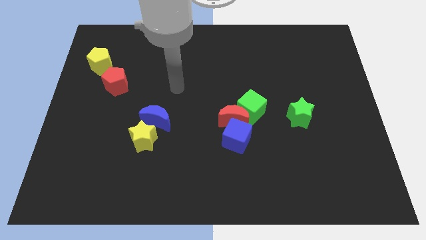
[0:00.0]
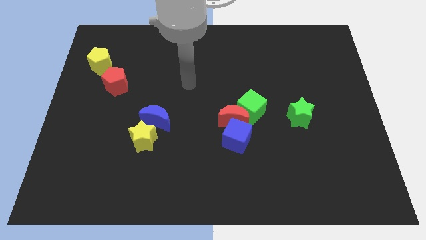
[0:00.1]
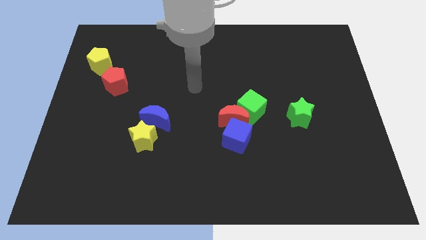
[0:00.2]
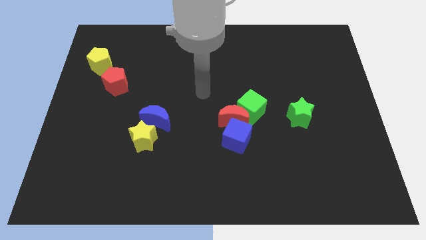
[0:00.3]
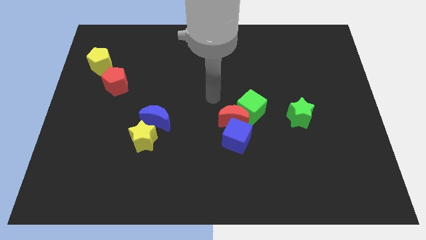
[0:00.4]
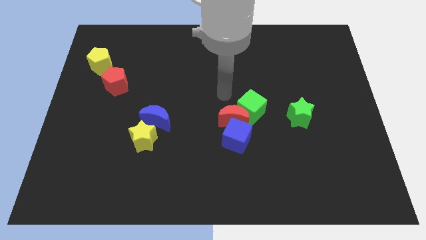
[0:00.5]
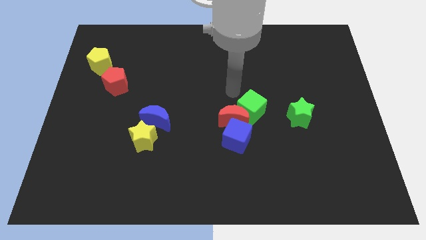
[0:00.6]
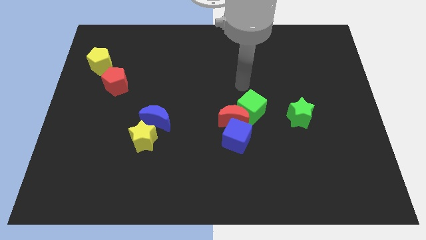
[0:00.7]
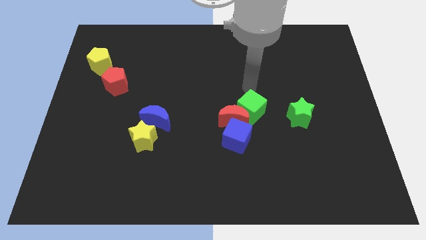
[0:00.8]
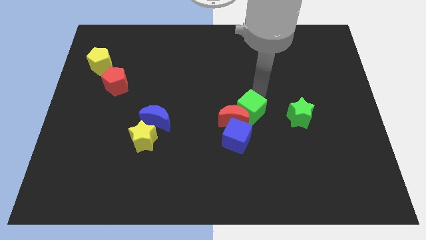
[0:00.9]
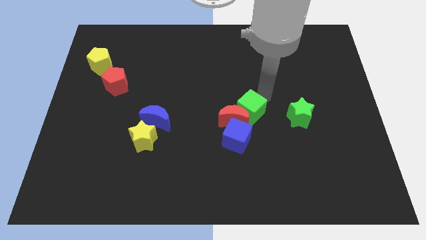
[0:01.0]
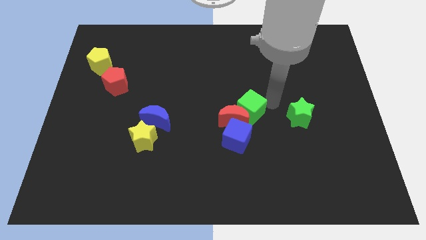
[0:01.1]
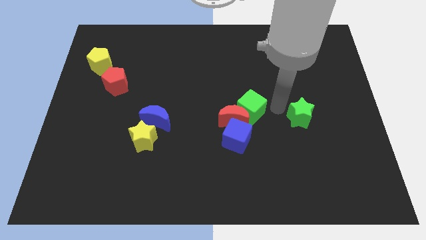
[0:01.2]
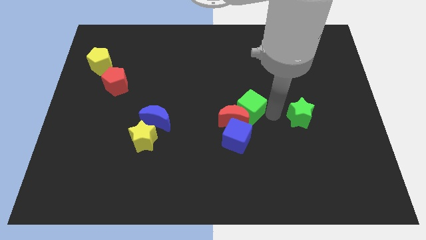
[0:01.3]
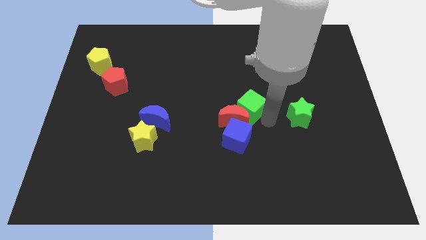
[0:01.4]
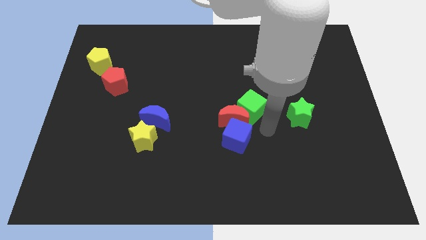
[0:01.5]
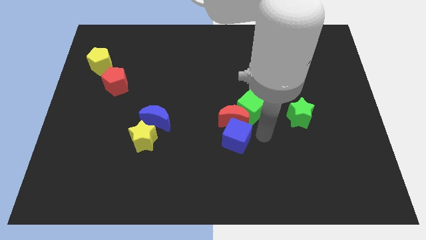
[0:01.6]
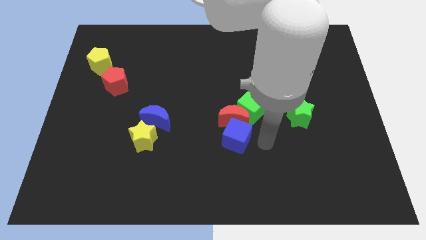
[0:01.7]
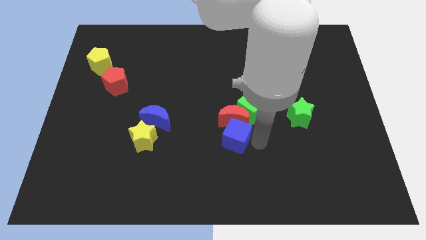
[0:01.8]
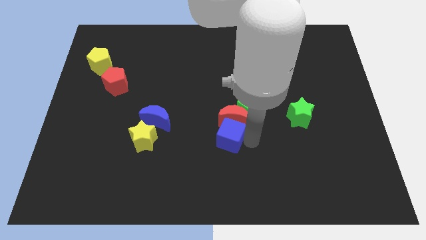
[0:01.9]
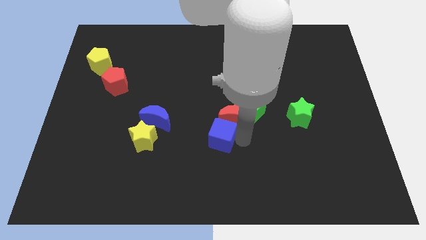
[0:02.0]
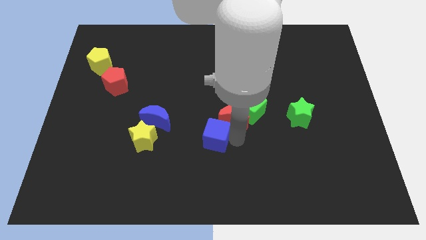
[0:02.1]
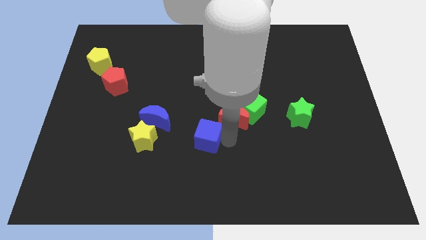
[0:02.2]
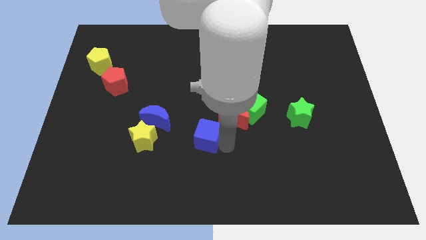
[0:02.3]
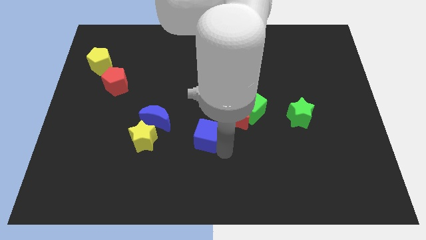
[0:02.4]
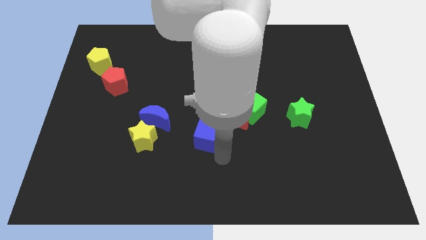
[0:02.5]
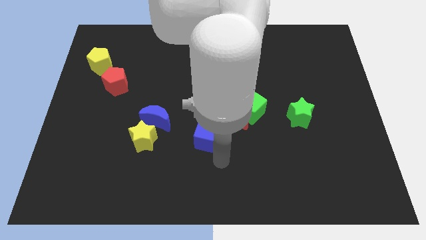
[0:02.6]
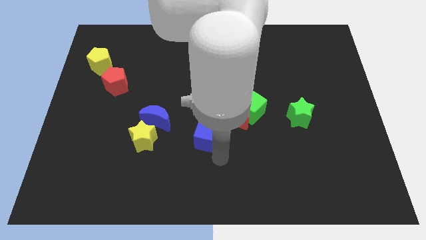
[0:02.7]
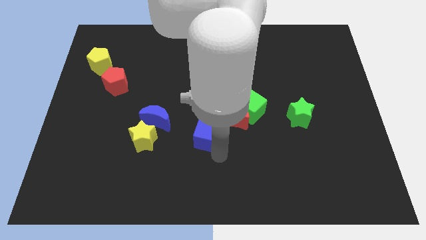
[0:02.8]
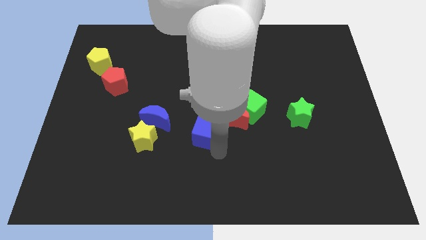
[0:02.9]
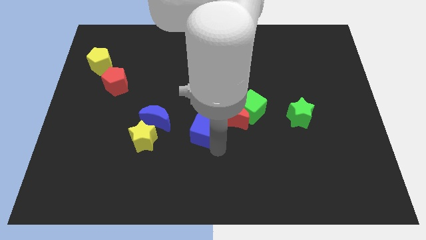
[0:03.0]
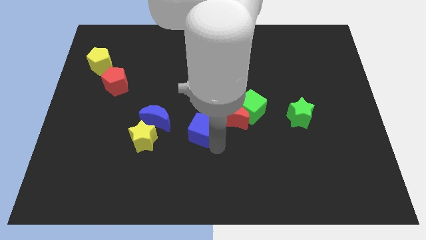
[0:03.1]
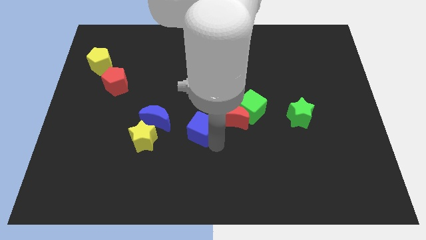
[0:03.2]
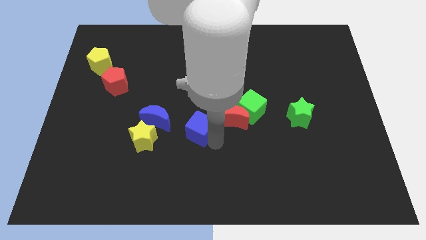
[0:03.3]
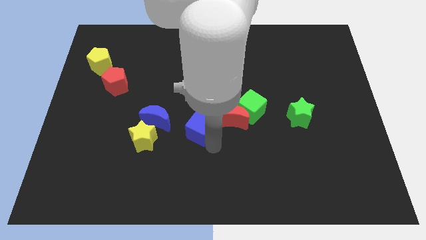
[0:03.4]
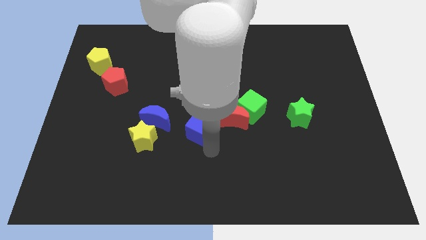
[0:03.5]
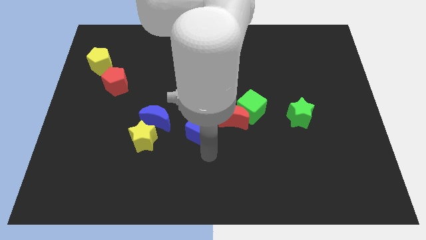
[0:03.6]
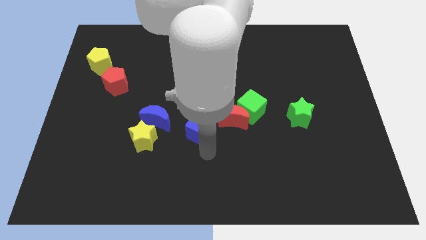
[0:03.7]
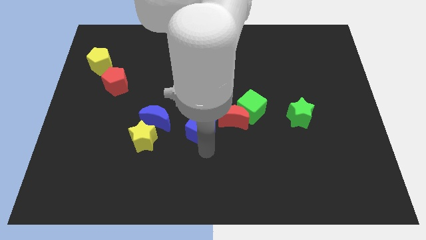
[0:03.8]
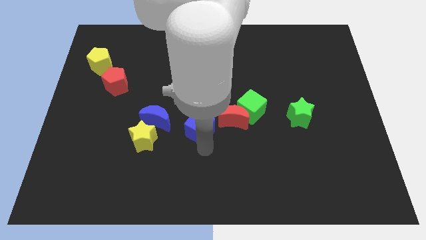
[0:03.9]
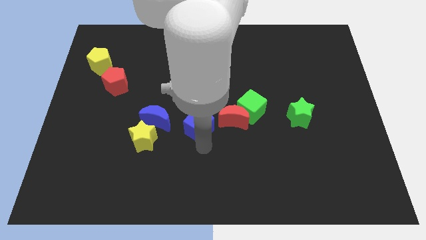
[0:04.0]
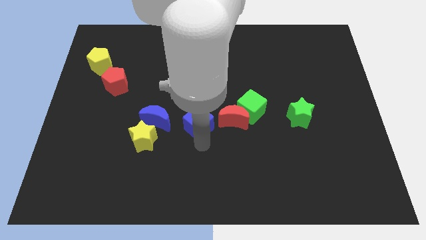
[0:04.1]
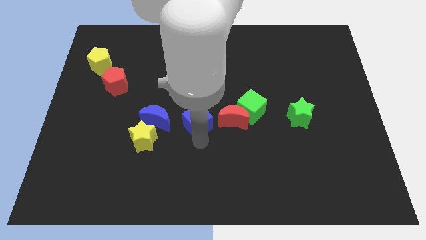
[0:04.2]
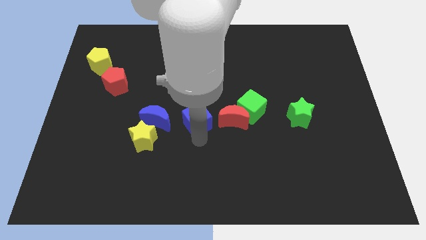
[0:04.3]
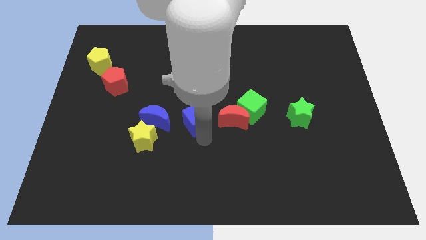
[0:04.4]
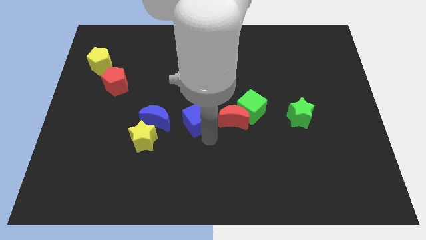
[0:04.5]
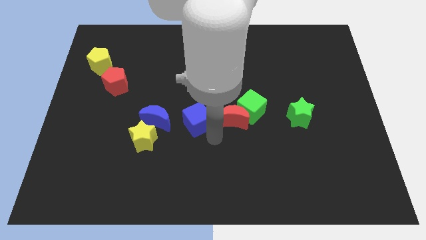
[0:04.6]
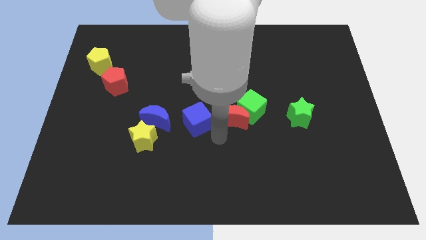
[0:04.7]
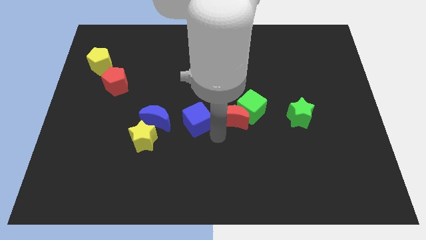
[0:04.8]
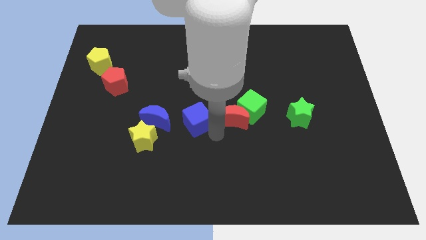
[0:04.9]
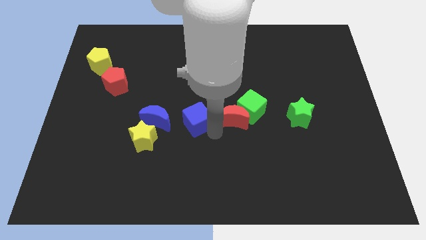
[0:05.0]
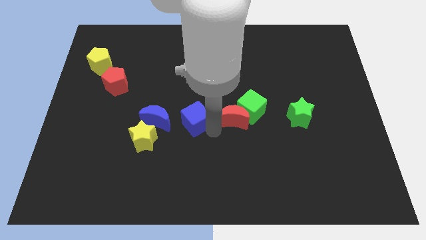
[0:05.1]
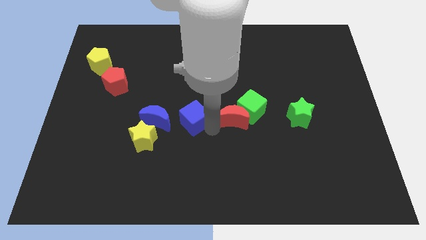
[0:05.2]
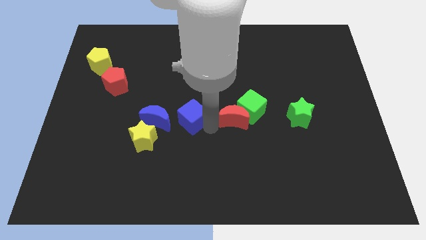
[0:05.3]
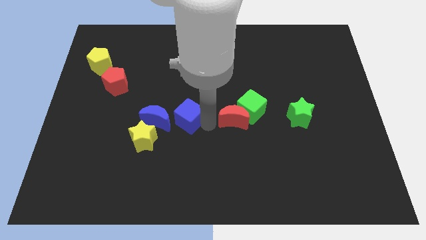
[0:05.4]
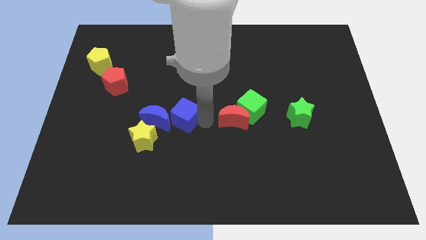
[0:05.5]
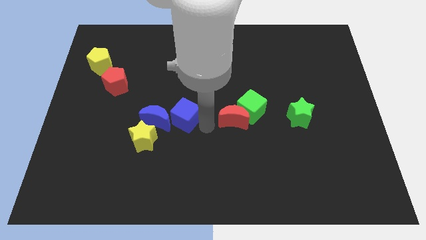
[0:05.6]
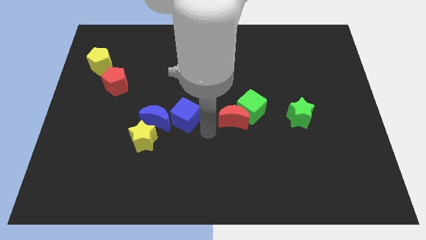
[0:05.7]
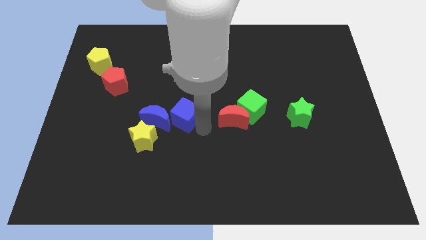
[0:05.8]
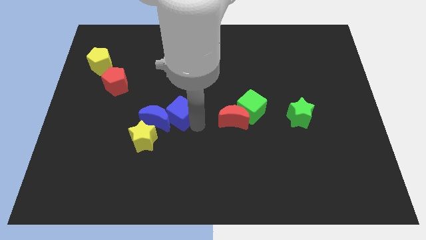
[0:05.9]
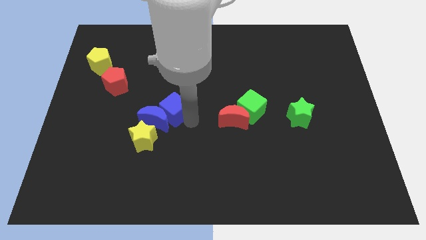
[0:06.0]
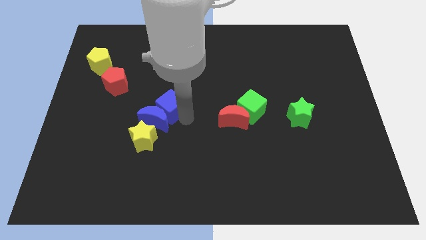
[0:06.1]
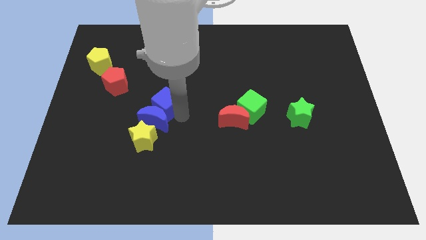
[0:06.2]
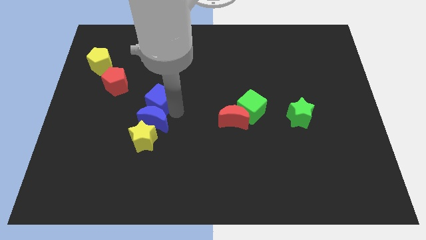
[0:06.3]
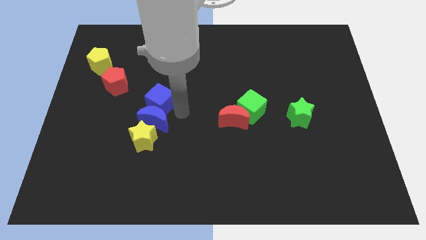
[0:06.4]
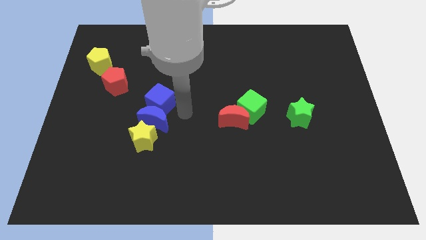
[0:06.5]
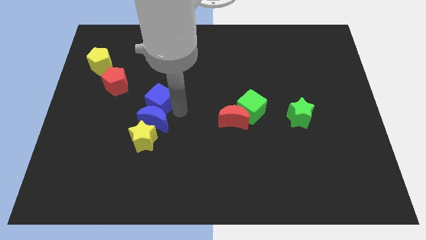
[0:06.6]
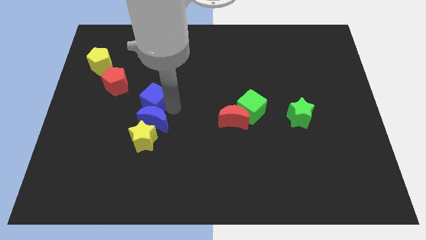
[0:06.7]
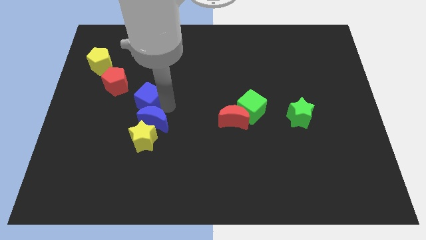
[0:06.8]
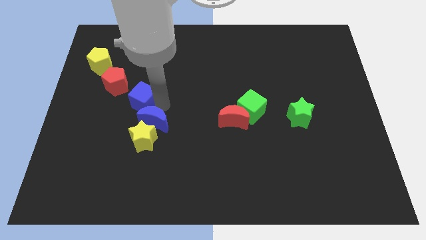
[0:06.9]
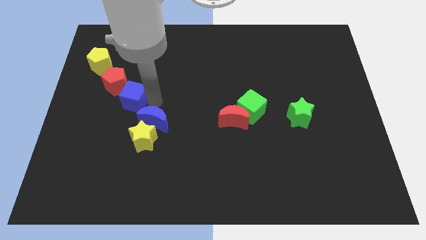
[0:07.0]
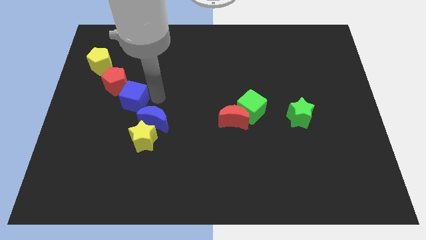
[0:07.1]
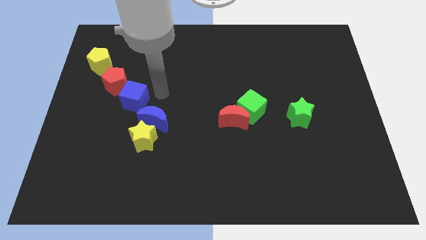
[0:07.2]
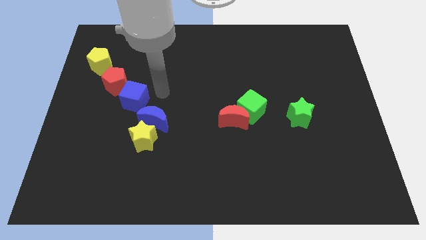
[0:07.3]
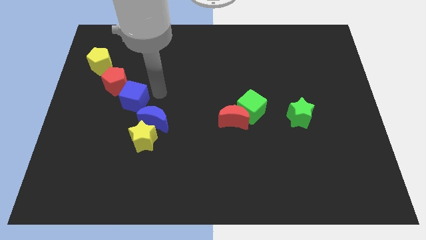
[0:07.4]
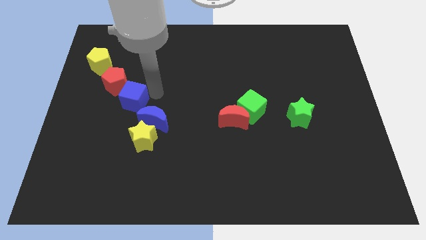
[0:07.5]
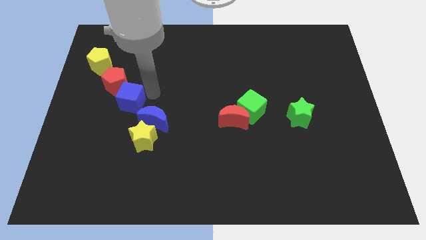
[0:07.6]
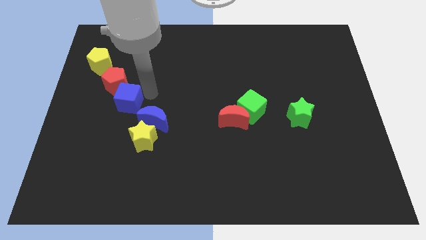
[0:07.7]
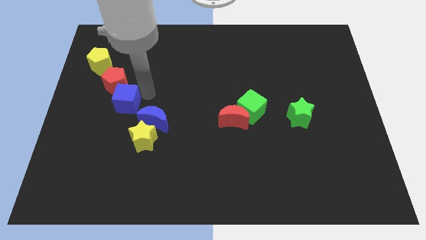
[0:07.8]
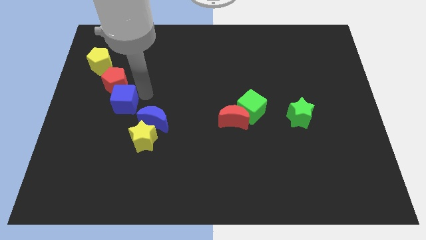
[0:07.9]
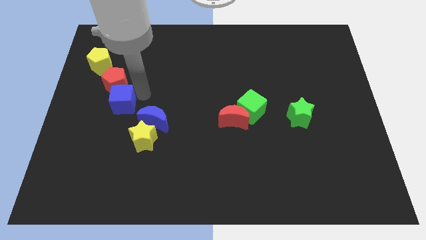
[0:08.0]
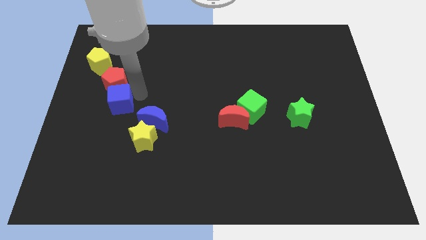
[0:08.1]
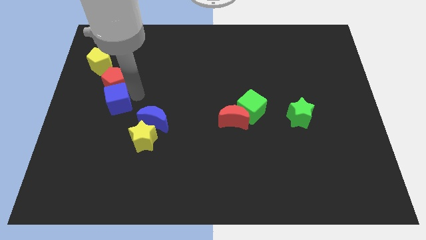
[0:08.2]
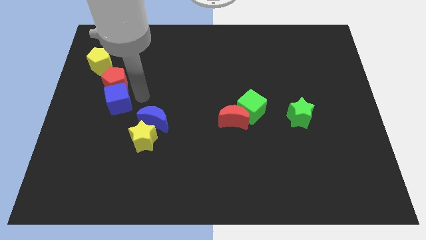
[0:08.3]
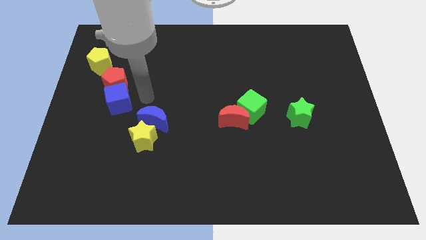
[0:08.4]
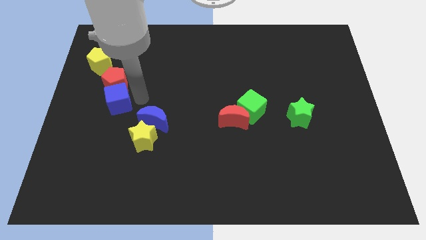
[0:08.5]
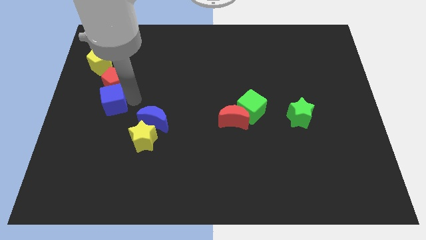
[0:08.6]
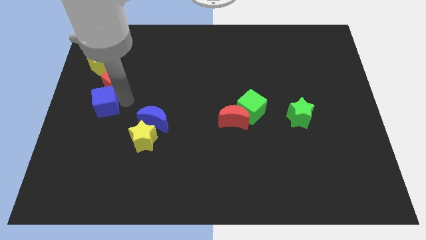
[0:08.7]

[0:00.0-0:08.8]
slide the blue cube to the left side of the board
